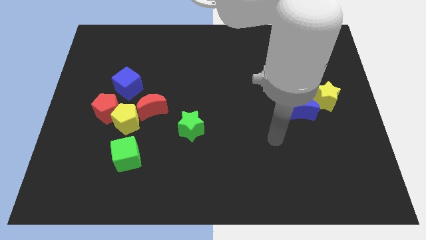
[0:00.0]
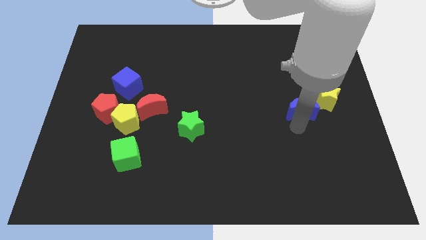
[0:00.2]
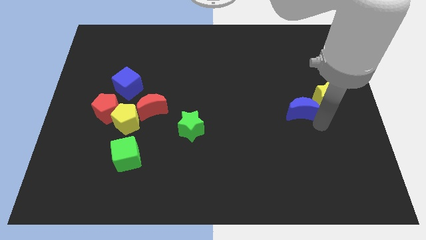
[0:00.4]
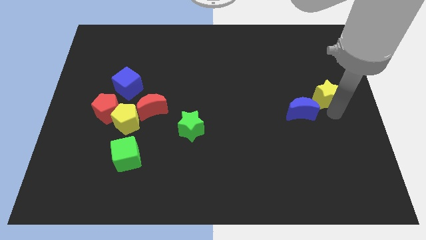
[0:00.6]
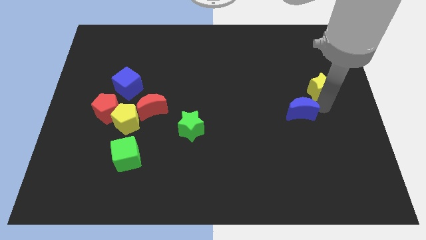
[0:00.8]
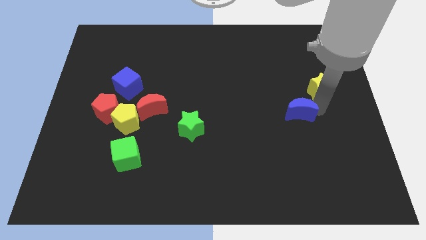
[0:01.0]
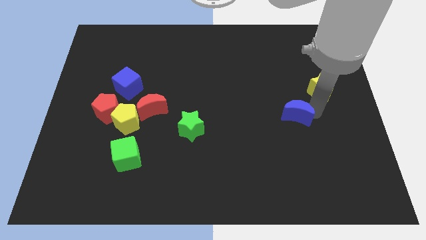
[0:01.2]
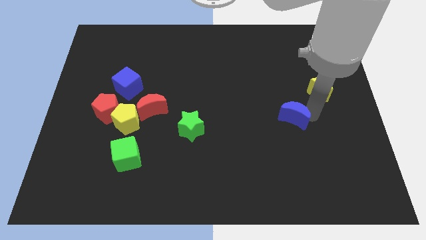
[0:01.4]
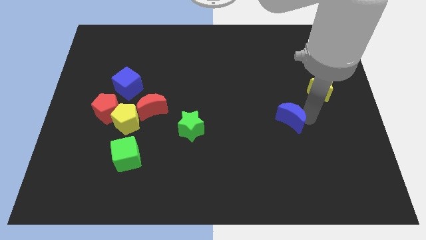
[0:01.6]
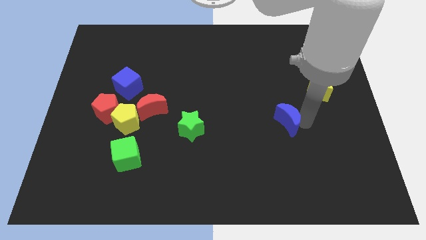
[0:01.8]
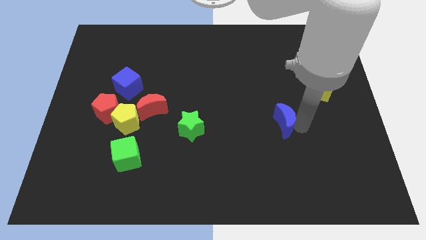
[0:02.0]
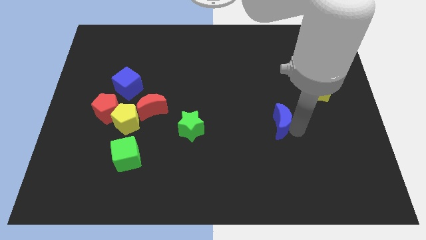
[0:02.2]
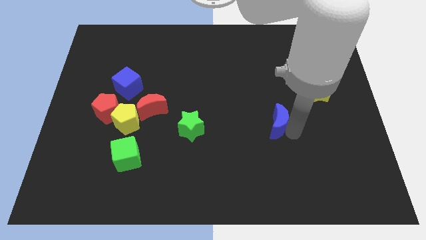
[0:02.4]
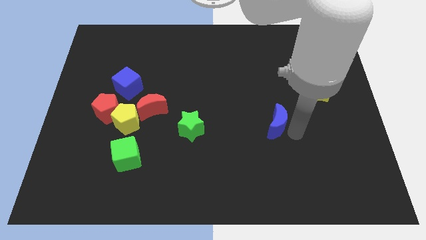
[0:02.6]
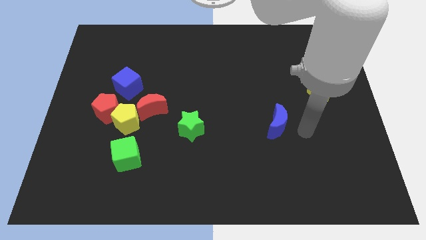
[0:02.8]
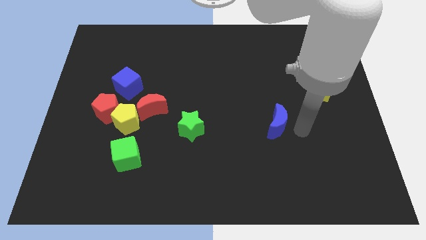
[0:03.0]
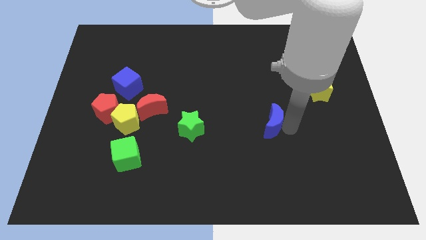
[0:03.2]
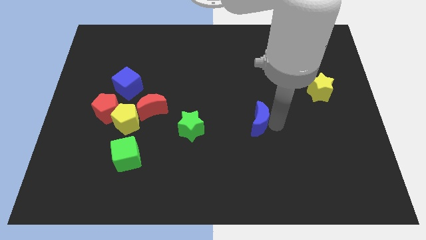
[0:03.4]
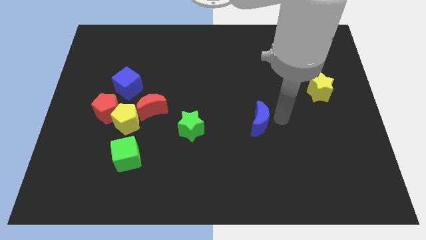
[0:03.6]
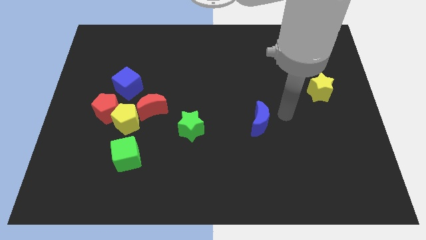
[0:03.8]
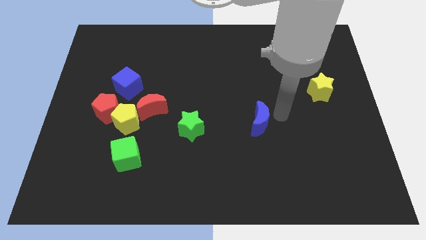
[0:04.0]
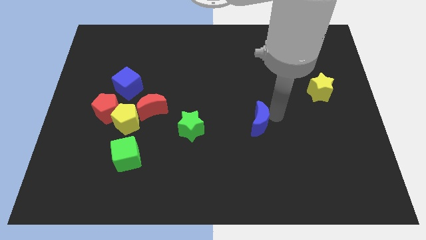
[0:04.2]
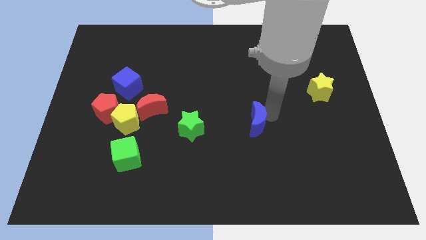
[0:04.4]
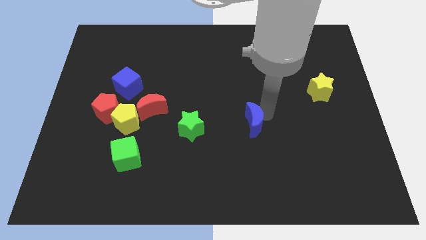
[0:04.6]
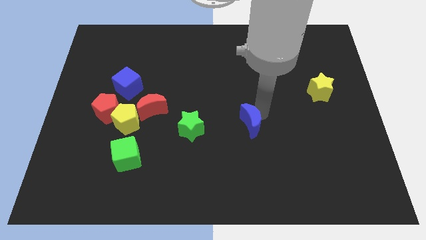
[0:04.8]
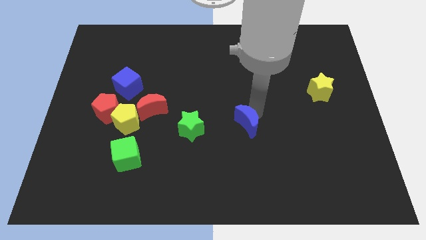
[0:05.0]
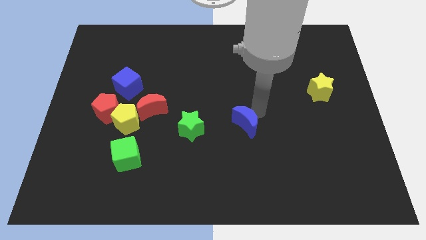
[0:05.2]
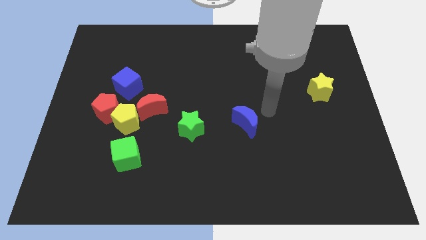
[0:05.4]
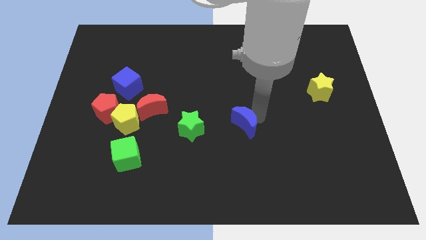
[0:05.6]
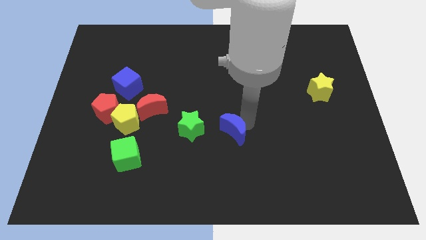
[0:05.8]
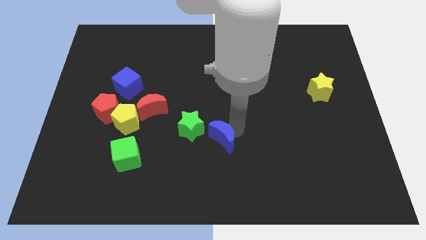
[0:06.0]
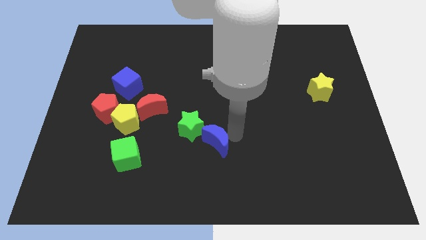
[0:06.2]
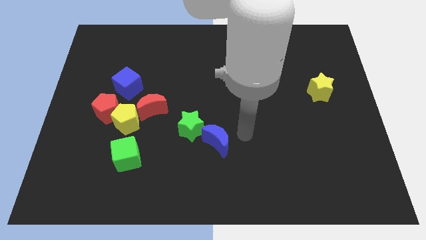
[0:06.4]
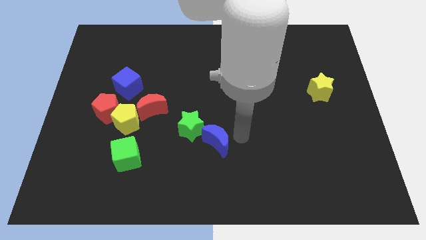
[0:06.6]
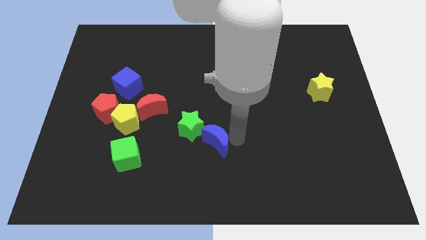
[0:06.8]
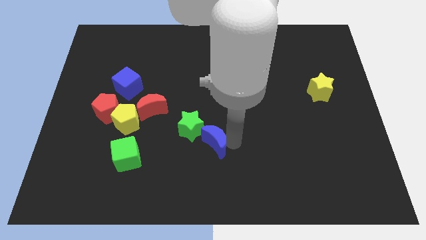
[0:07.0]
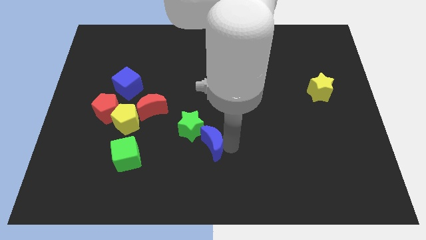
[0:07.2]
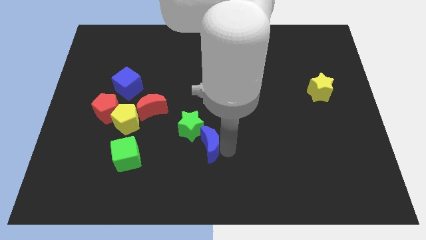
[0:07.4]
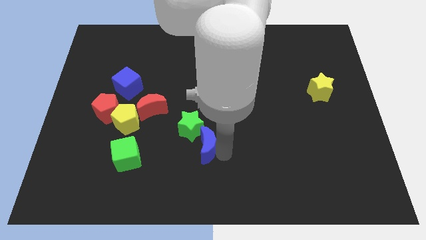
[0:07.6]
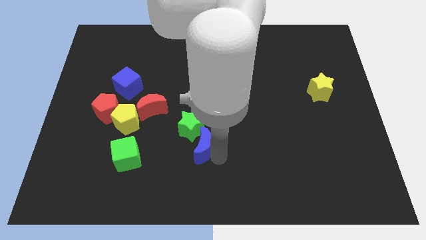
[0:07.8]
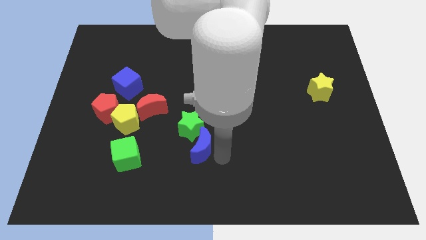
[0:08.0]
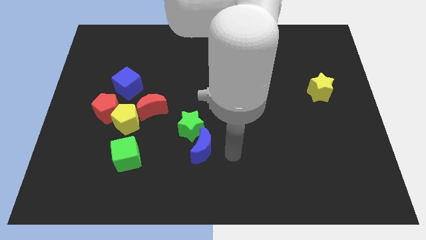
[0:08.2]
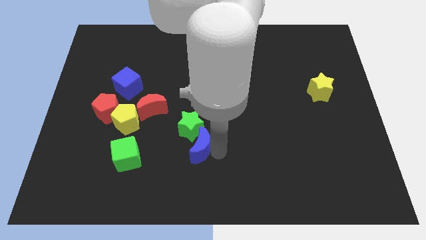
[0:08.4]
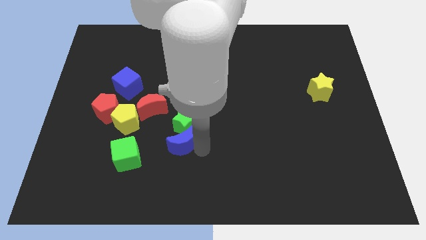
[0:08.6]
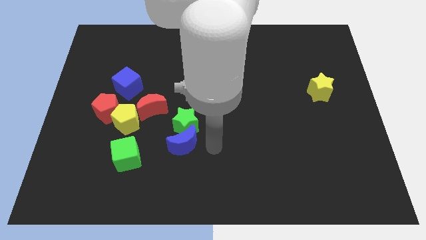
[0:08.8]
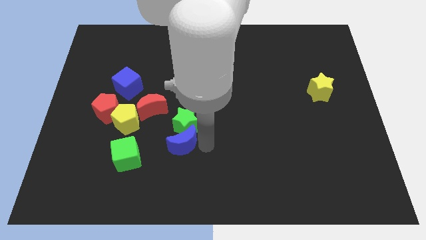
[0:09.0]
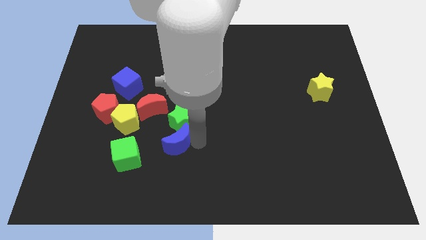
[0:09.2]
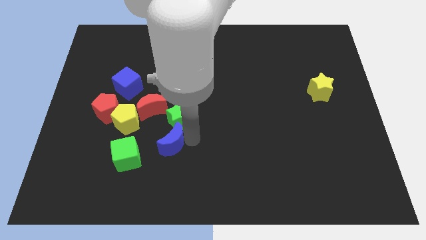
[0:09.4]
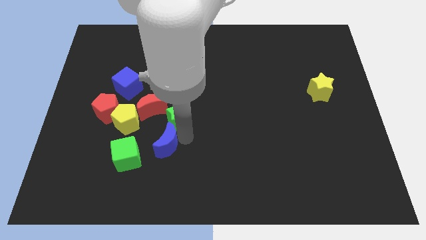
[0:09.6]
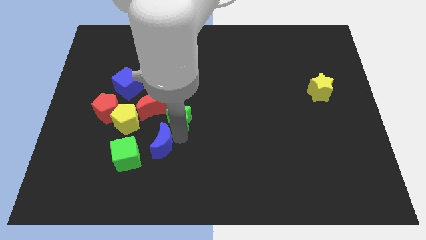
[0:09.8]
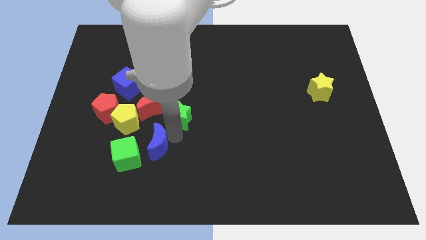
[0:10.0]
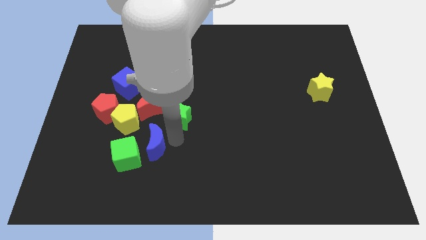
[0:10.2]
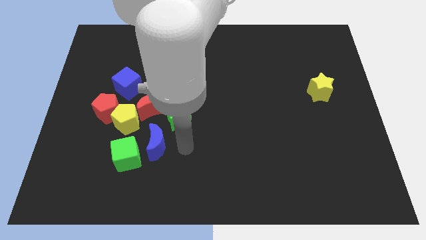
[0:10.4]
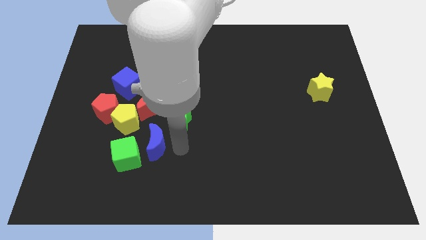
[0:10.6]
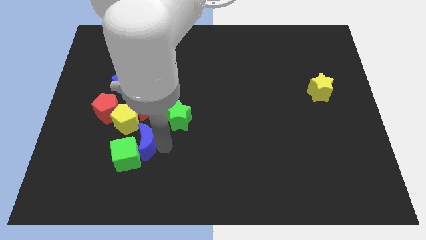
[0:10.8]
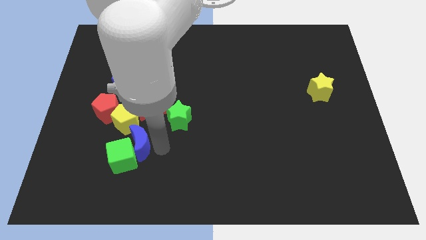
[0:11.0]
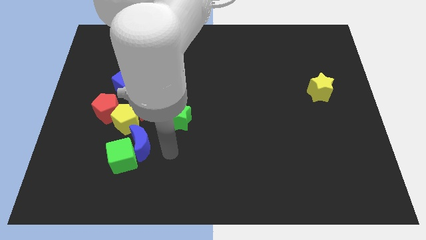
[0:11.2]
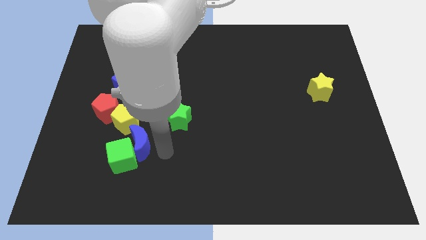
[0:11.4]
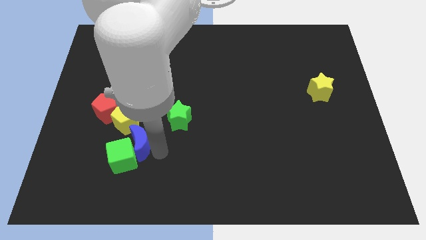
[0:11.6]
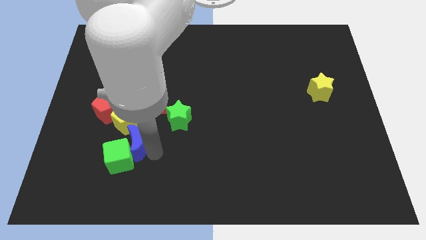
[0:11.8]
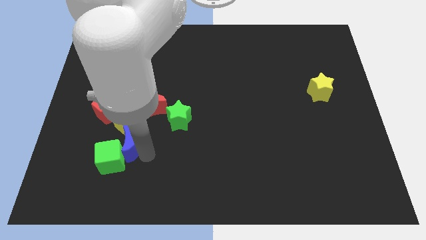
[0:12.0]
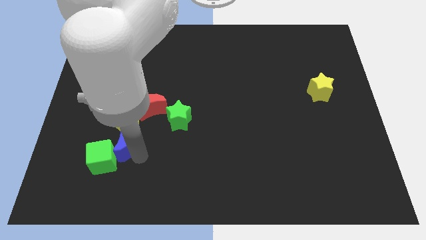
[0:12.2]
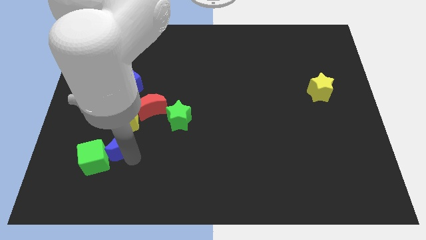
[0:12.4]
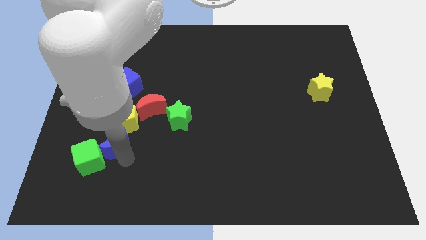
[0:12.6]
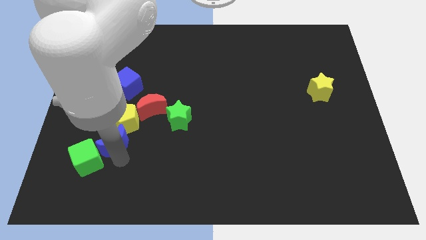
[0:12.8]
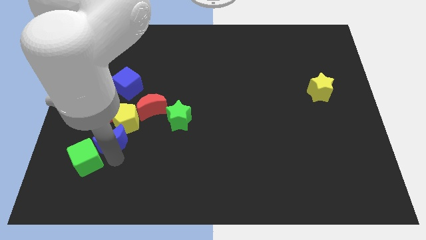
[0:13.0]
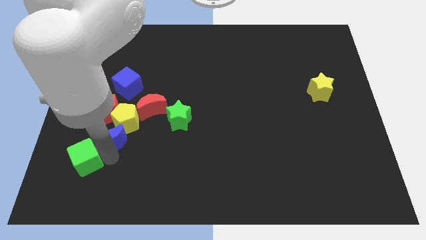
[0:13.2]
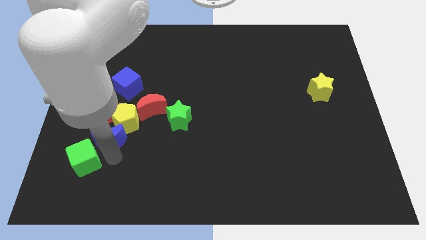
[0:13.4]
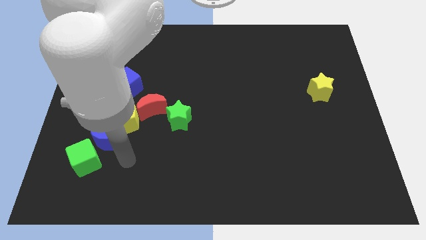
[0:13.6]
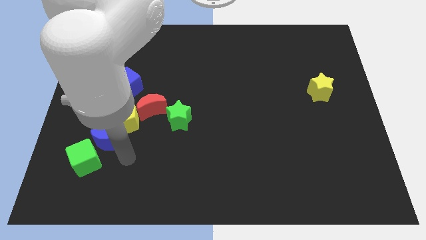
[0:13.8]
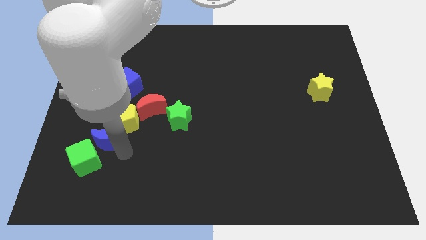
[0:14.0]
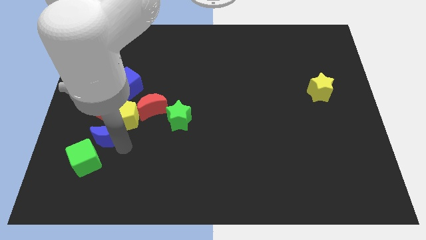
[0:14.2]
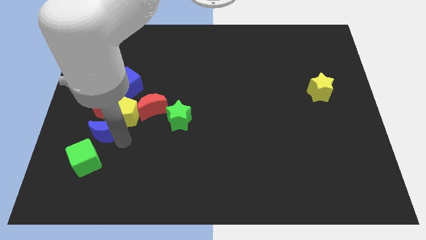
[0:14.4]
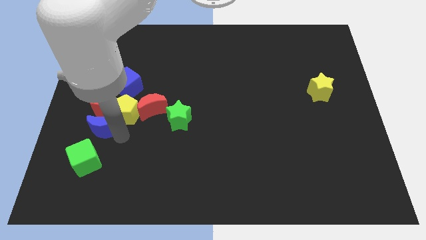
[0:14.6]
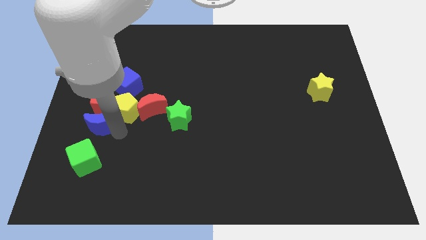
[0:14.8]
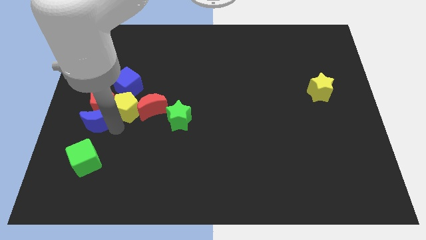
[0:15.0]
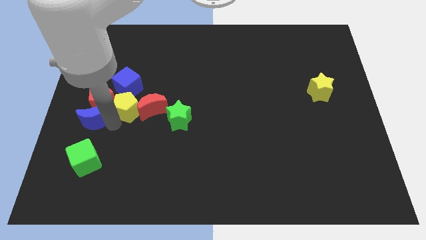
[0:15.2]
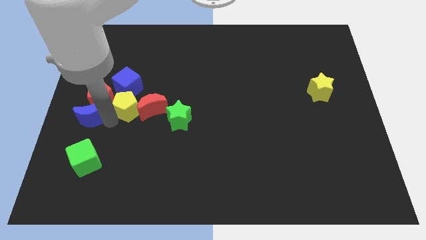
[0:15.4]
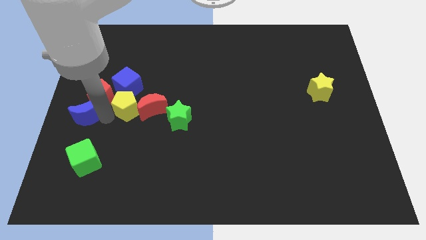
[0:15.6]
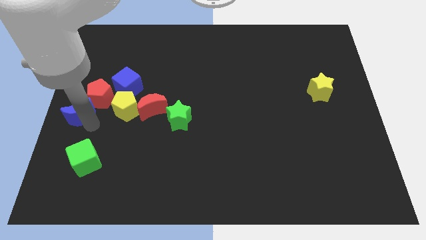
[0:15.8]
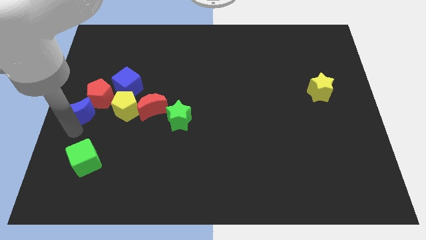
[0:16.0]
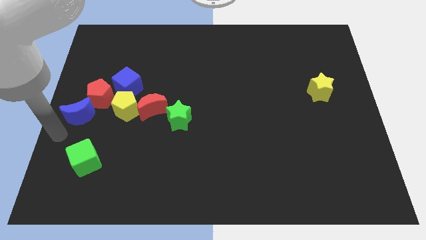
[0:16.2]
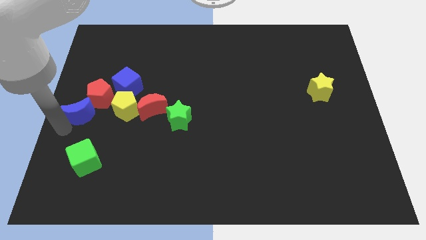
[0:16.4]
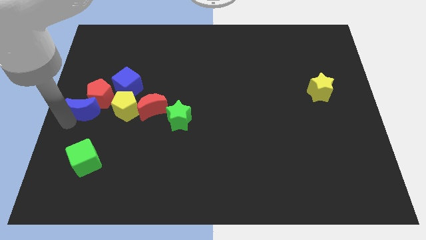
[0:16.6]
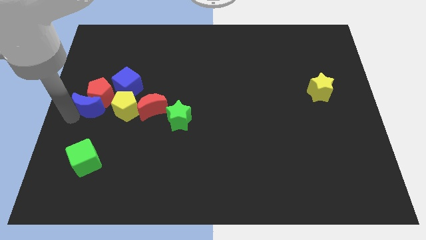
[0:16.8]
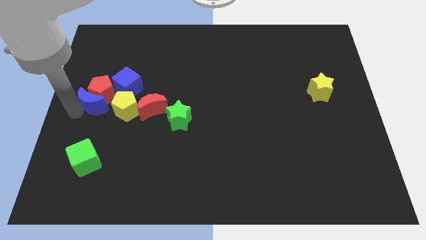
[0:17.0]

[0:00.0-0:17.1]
slide the blue moon to the top left of the yellow pentagon
